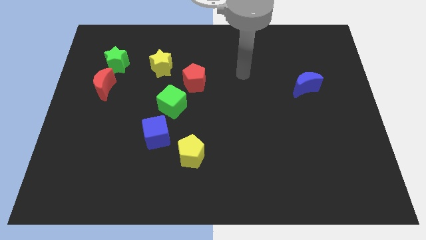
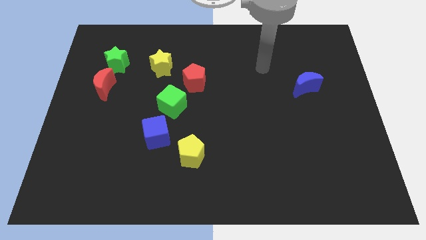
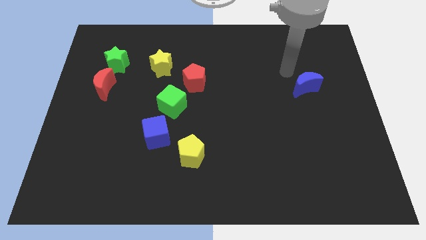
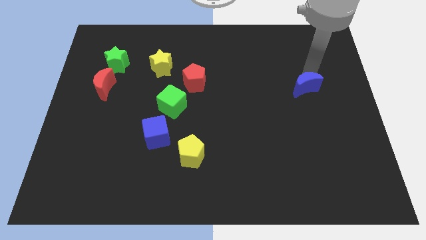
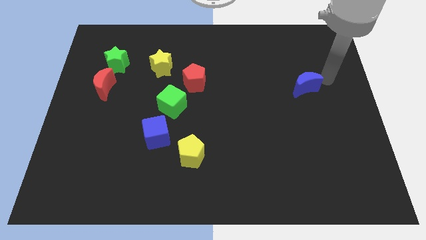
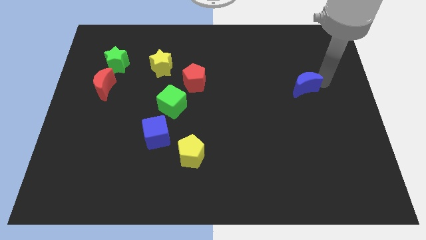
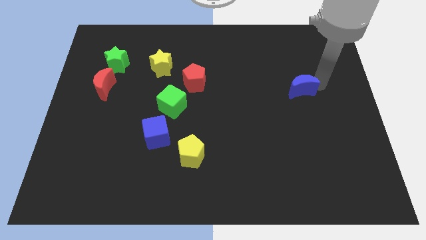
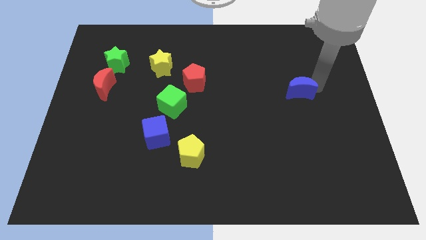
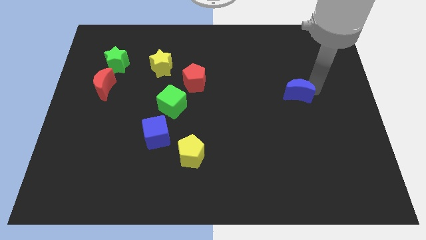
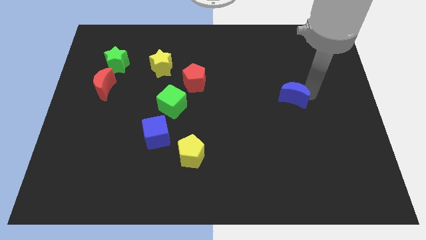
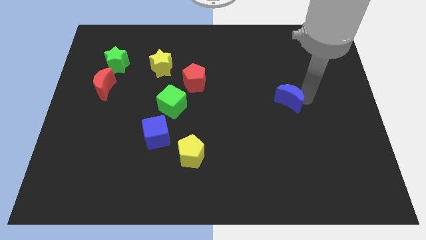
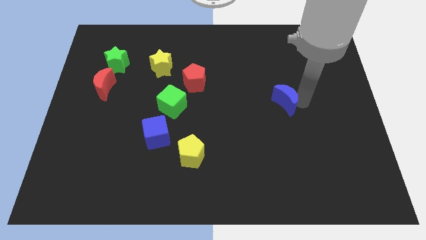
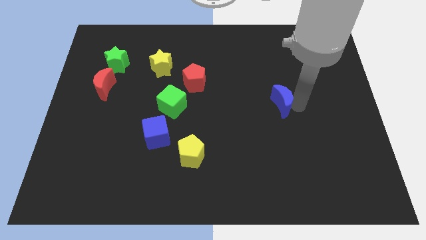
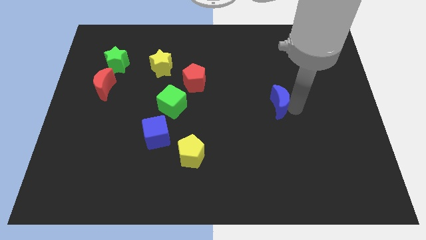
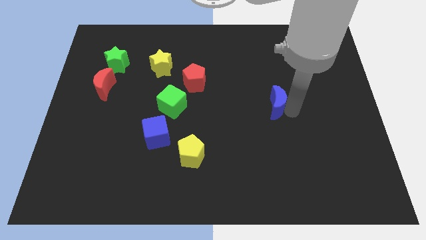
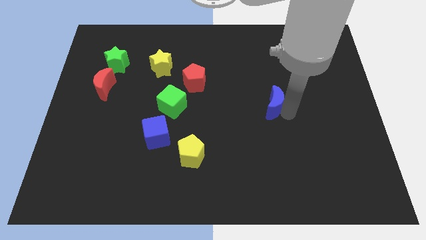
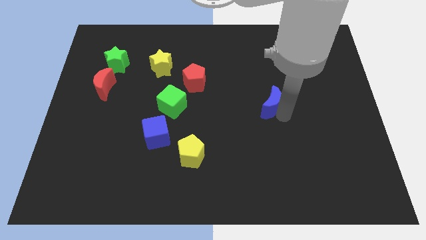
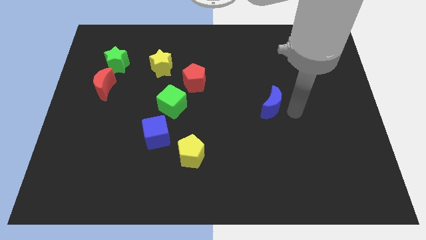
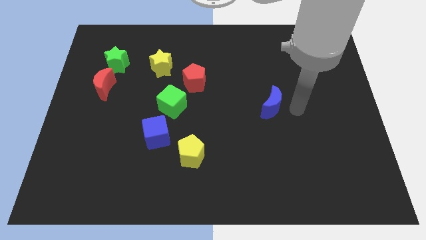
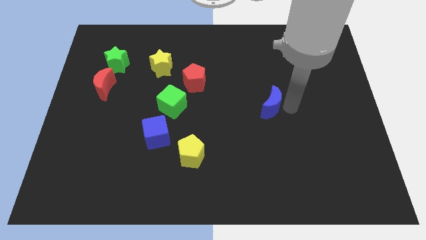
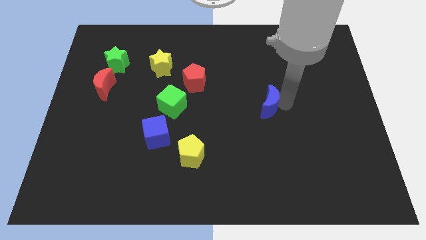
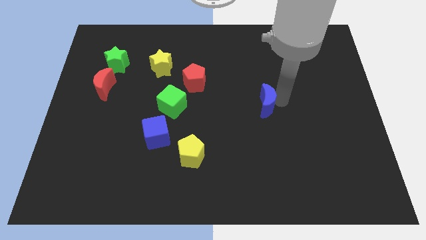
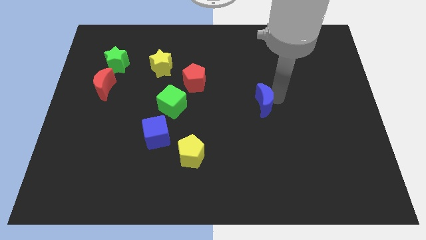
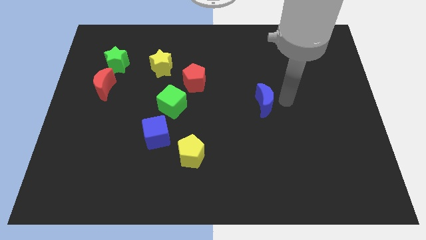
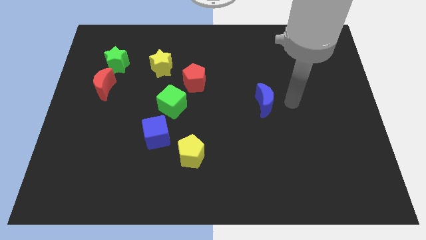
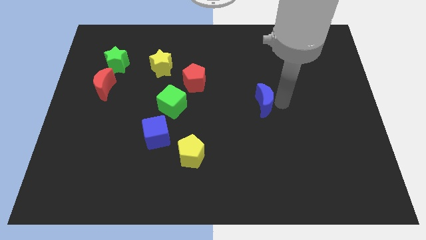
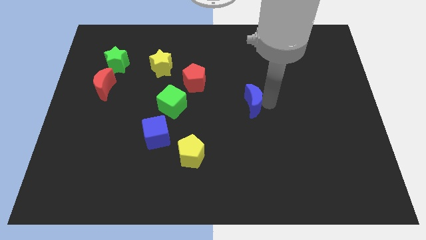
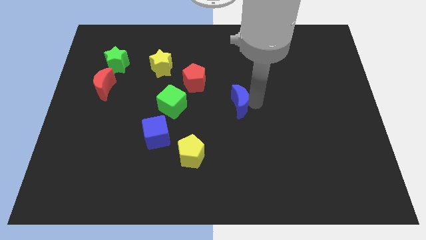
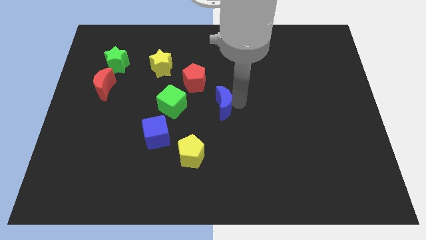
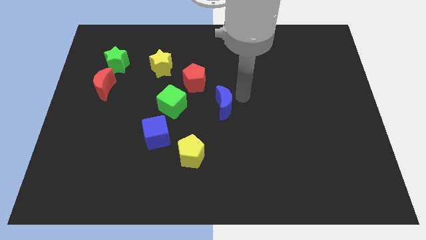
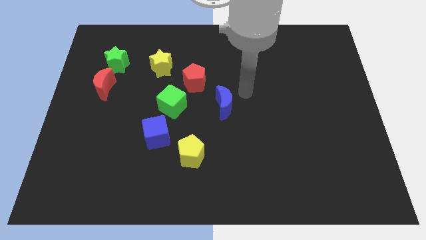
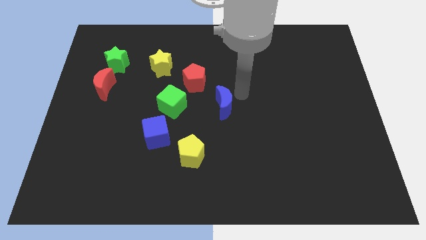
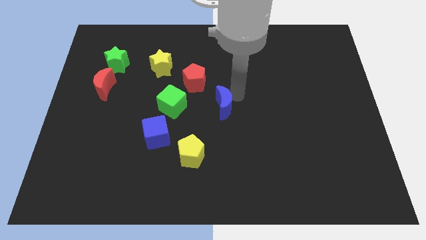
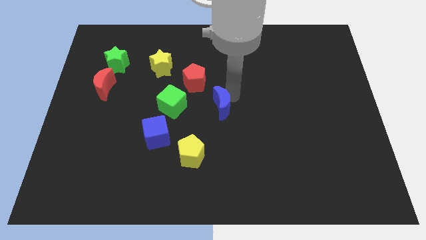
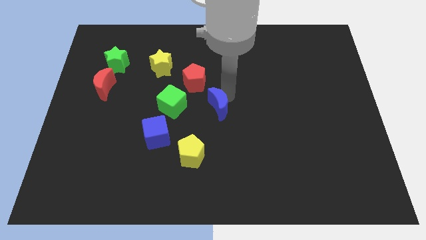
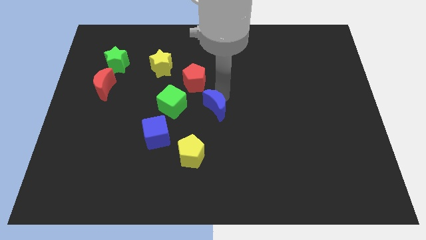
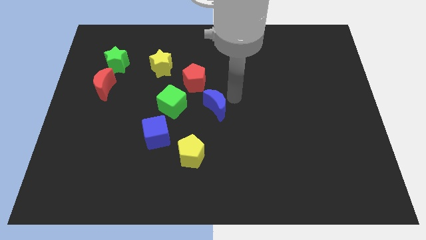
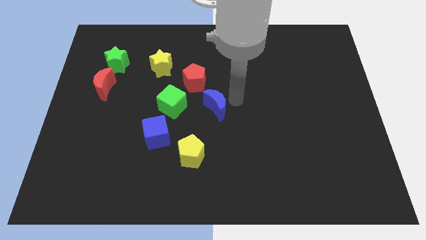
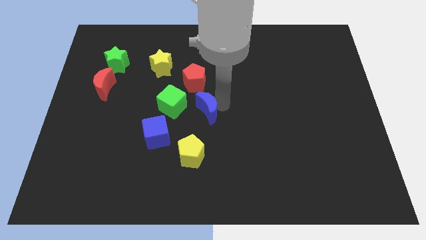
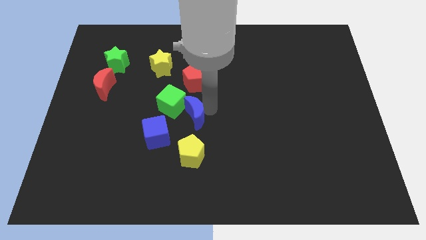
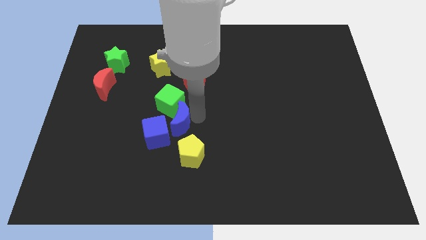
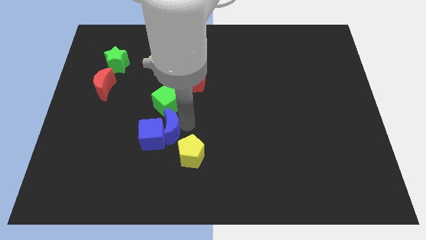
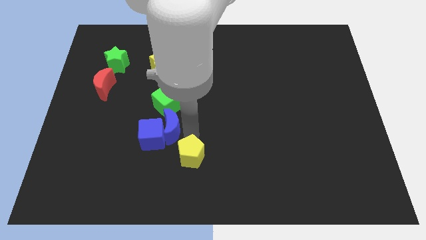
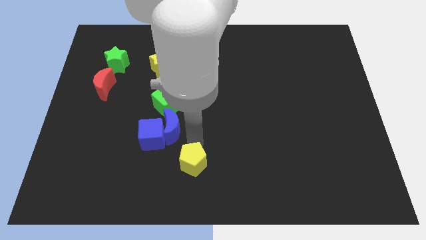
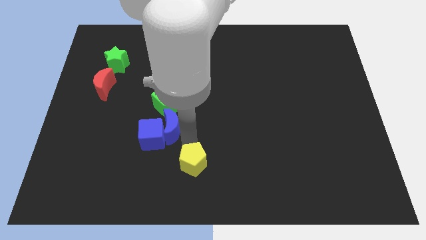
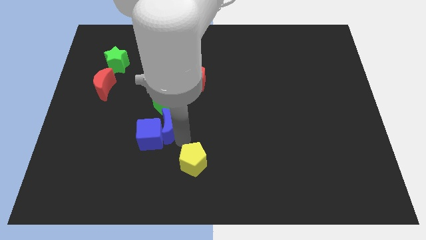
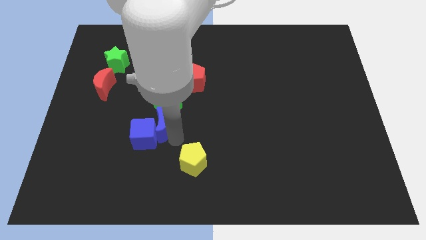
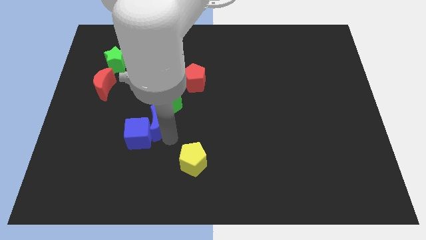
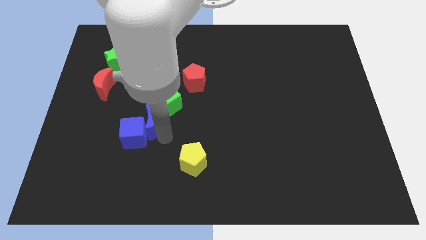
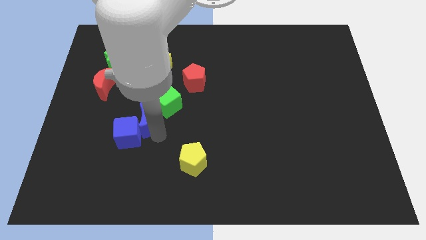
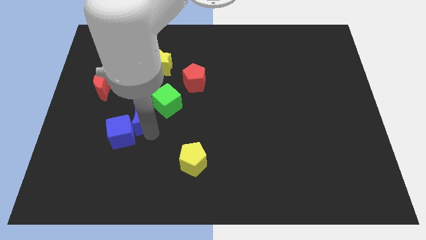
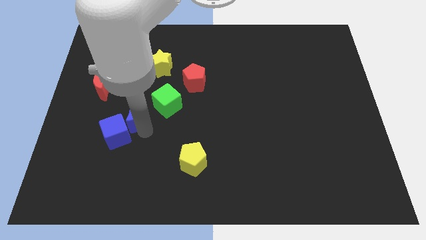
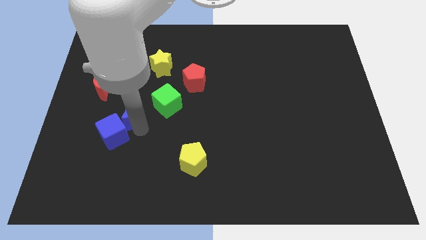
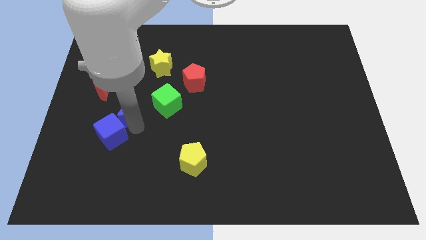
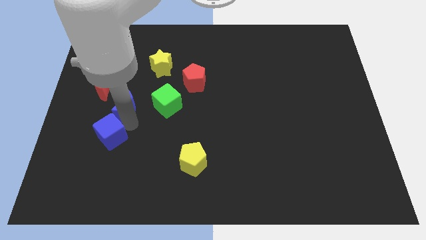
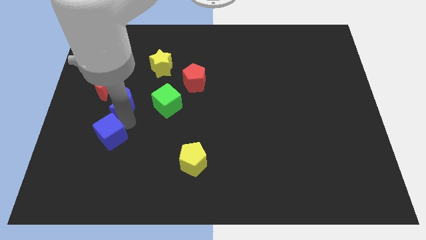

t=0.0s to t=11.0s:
slide the blue moon to the bottom of the green star

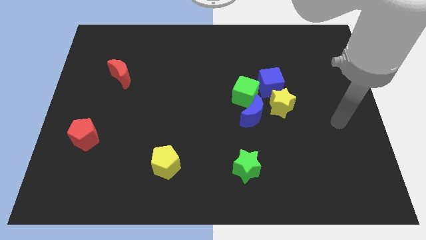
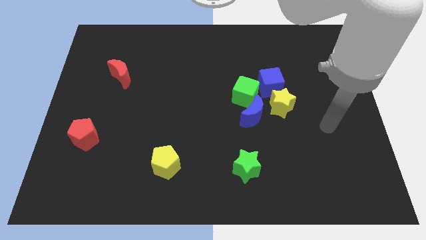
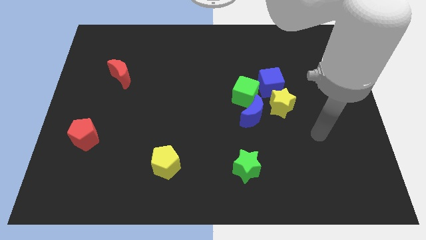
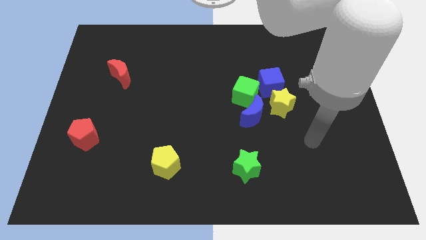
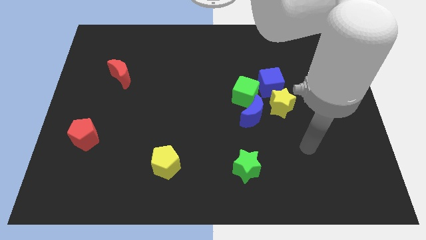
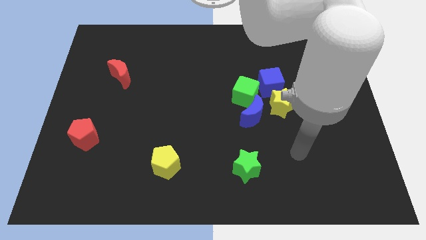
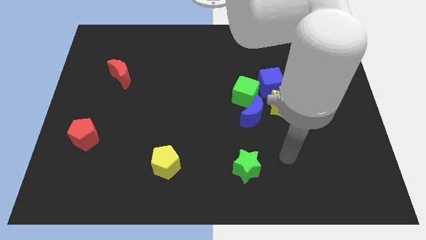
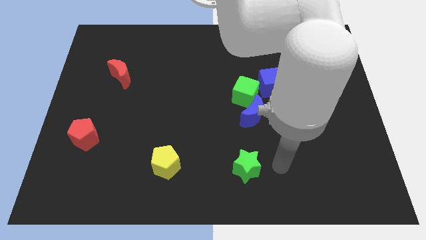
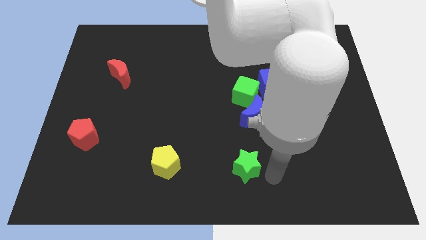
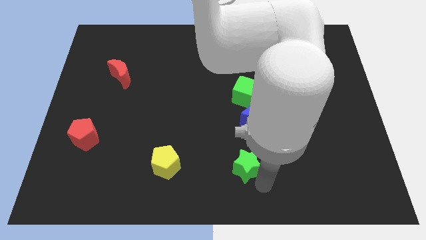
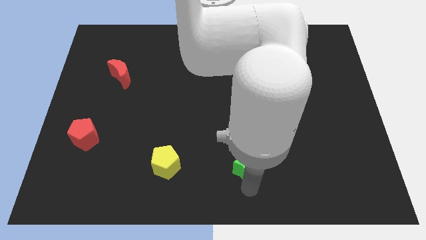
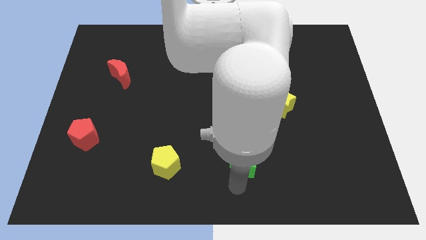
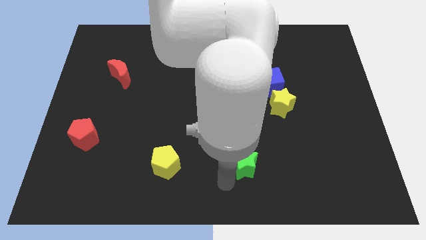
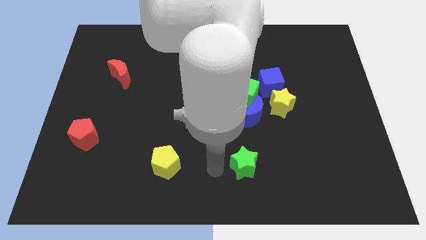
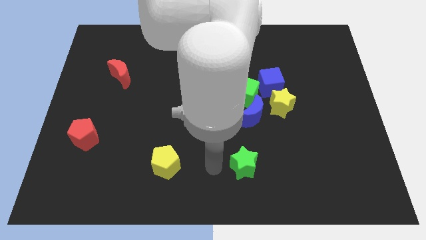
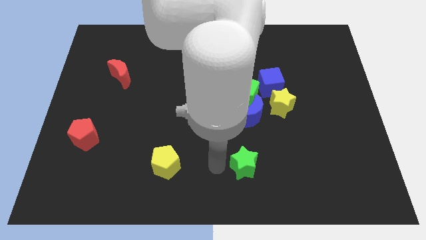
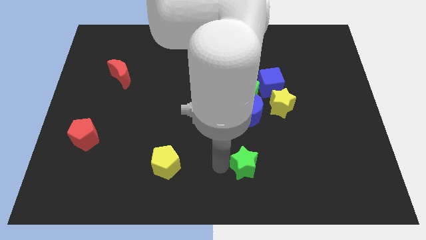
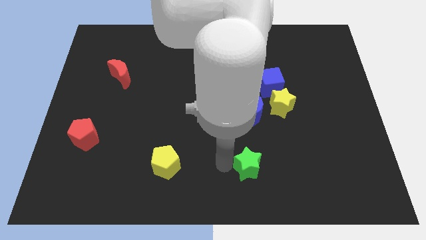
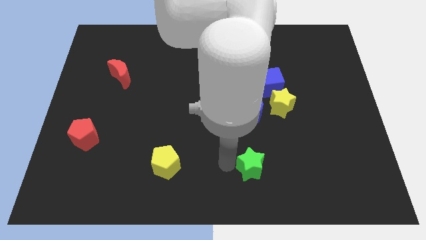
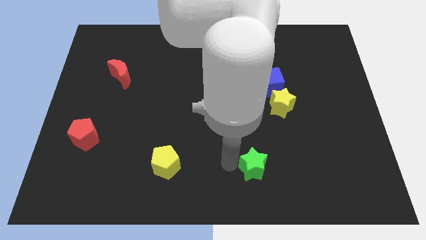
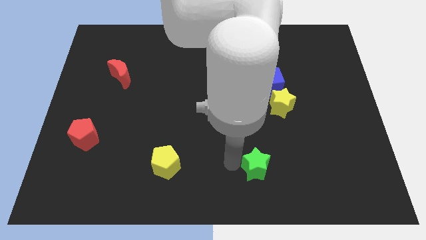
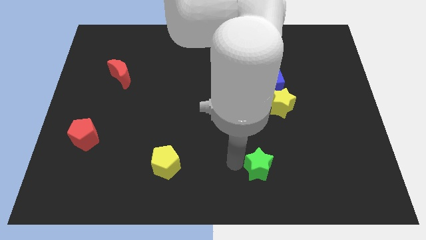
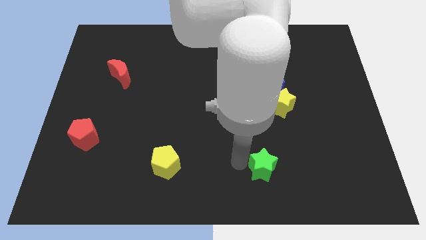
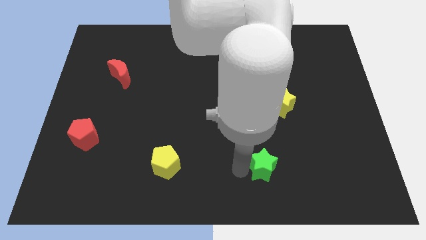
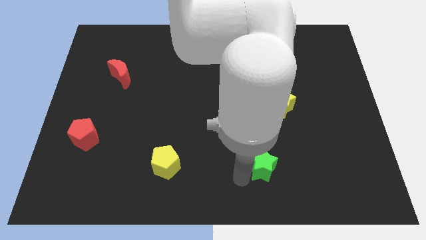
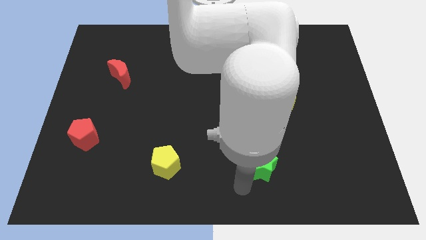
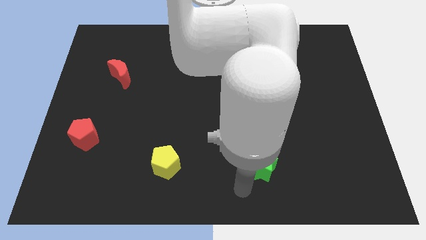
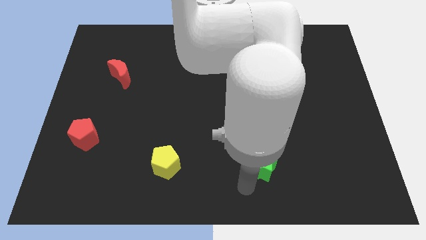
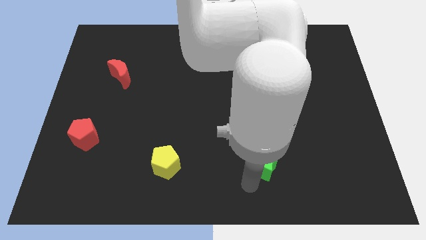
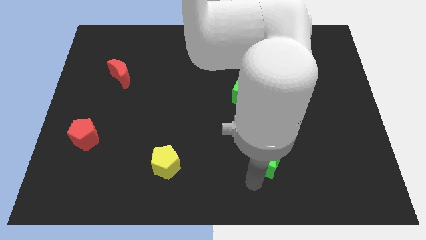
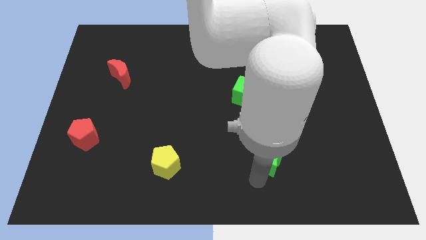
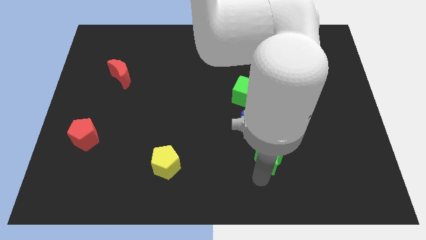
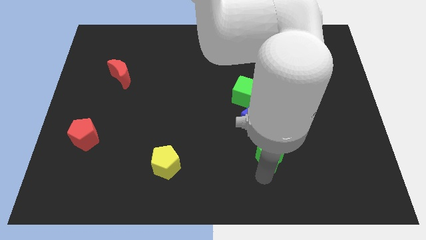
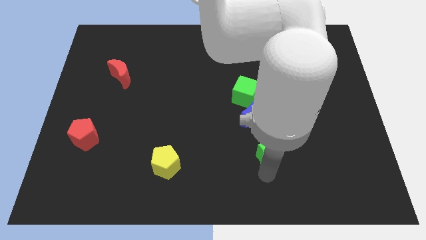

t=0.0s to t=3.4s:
push the green star below the yellow star
